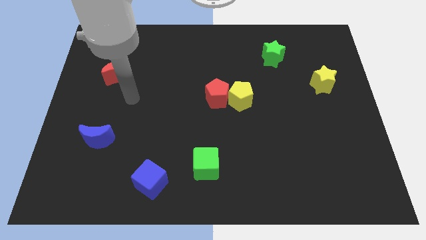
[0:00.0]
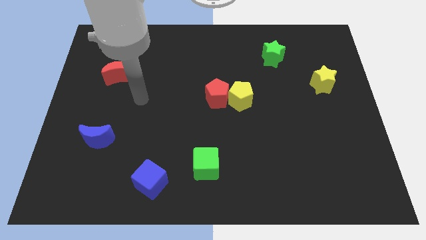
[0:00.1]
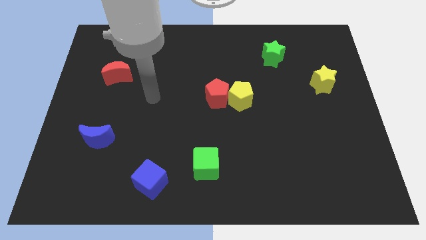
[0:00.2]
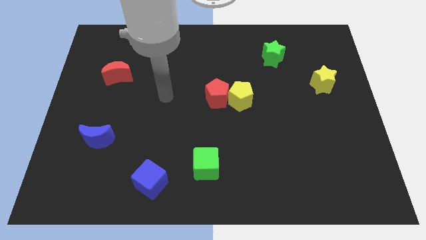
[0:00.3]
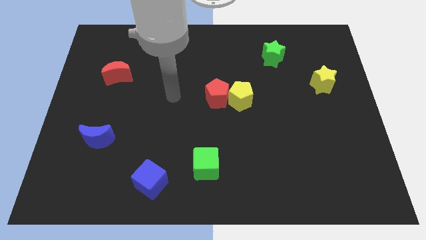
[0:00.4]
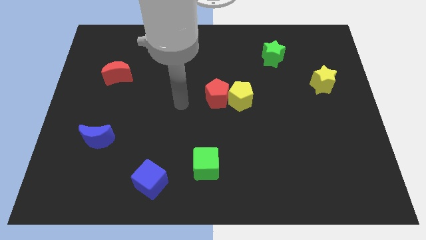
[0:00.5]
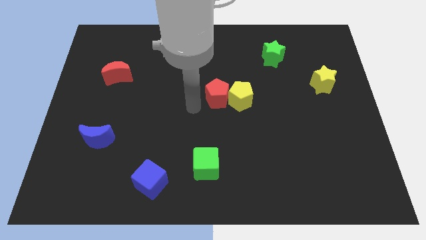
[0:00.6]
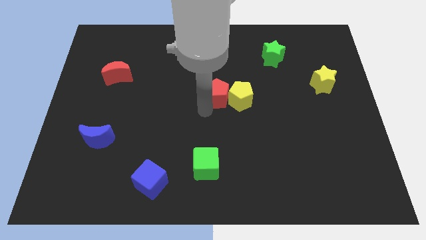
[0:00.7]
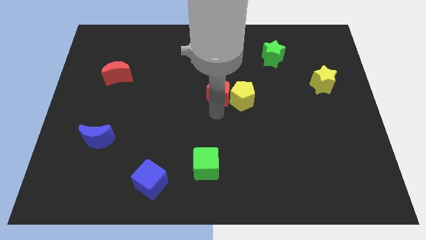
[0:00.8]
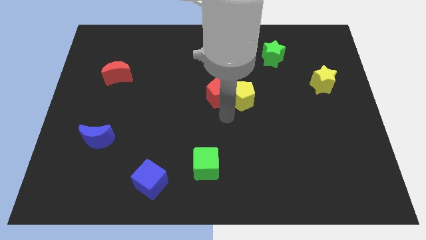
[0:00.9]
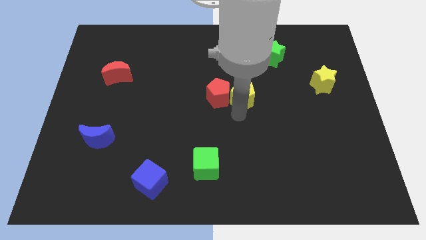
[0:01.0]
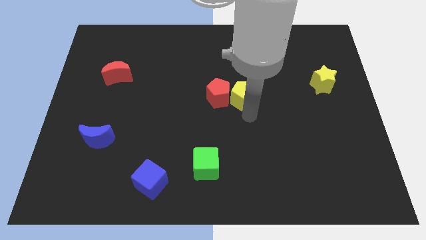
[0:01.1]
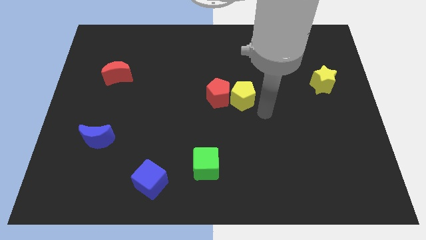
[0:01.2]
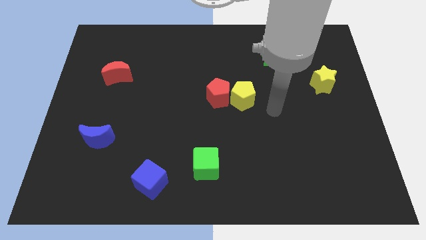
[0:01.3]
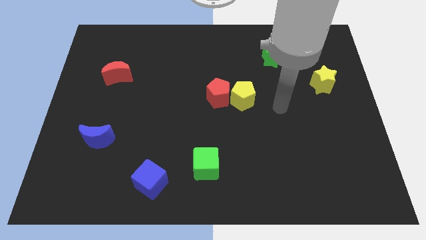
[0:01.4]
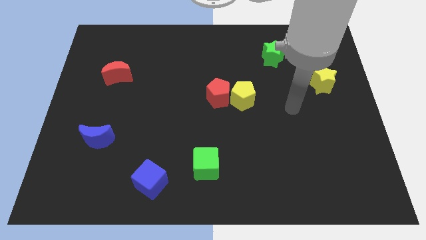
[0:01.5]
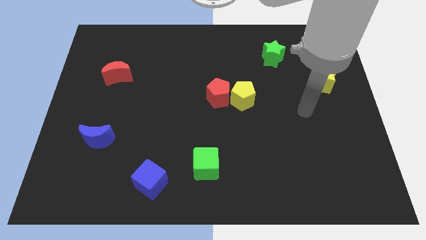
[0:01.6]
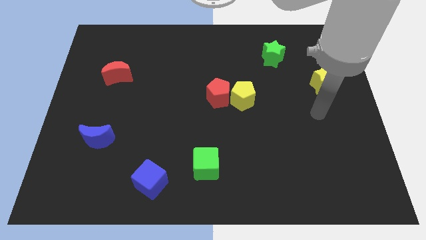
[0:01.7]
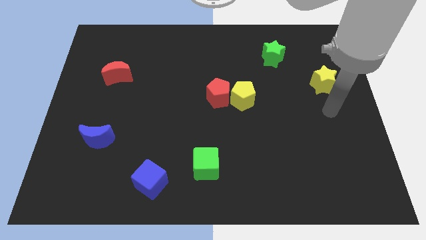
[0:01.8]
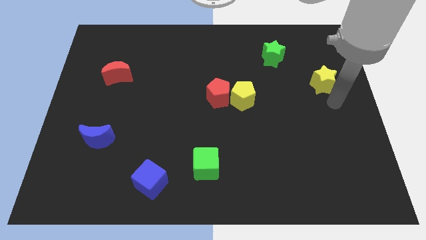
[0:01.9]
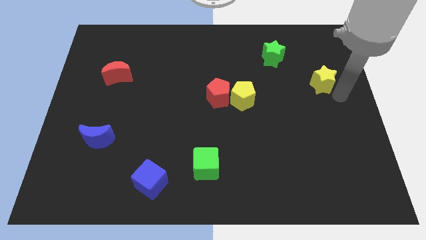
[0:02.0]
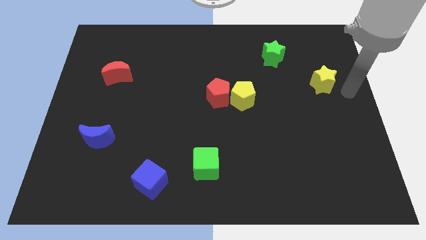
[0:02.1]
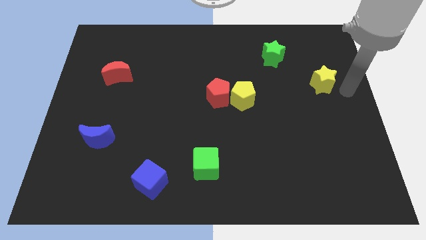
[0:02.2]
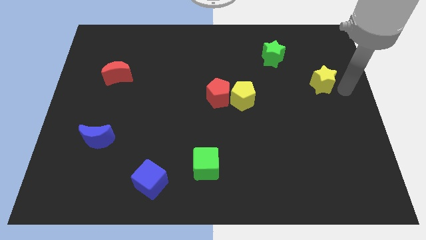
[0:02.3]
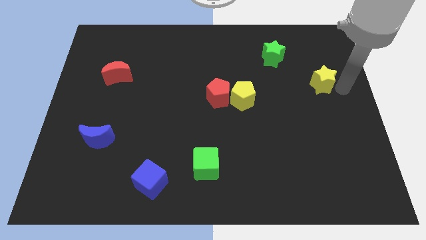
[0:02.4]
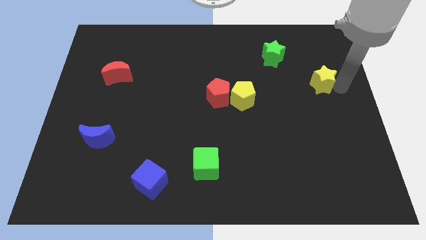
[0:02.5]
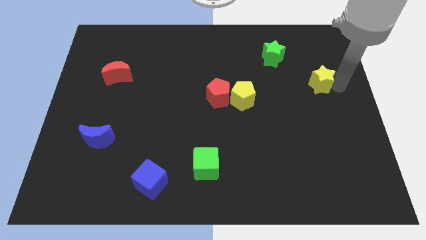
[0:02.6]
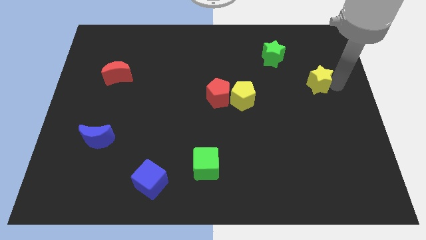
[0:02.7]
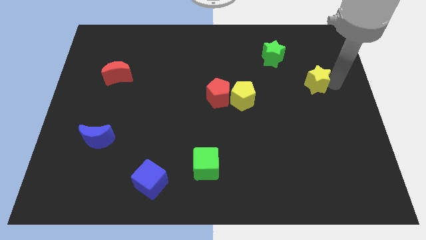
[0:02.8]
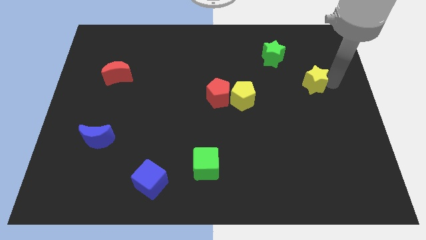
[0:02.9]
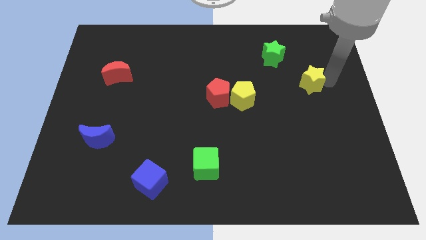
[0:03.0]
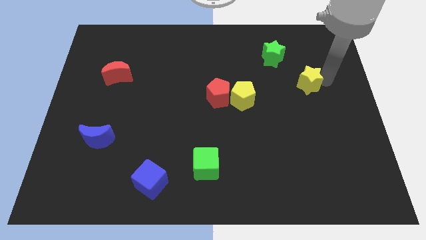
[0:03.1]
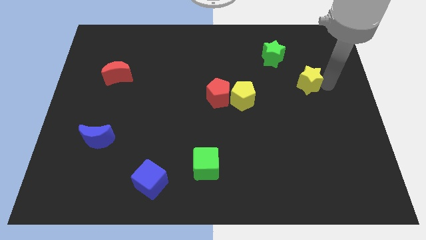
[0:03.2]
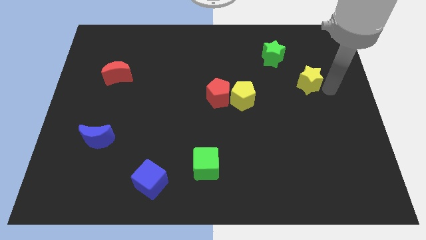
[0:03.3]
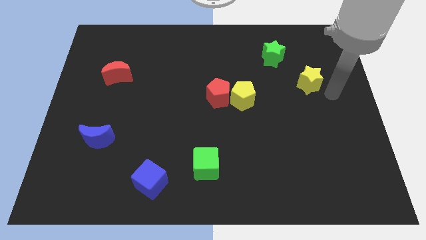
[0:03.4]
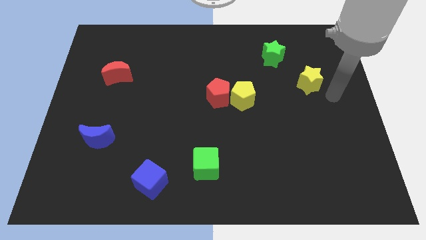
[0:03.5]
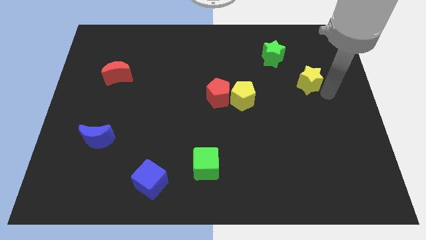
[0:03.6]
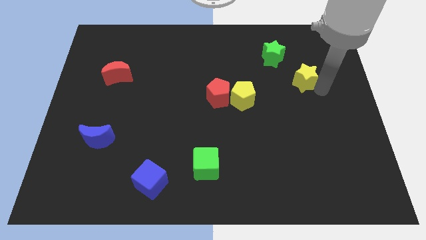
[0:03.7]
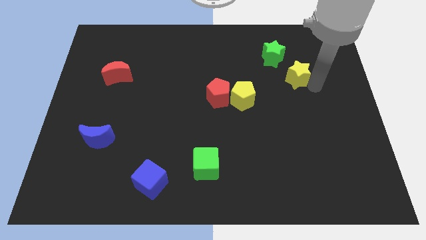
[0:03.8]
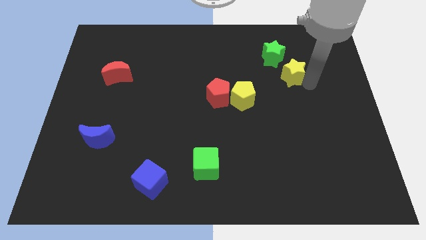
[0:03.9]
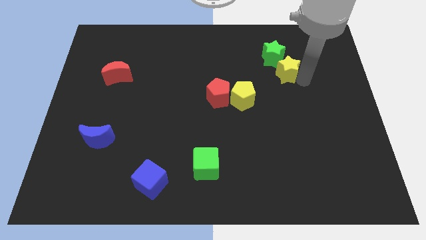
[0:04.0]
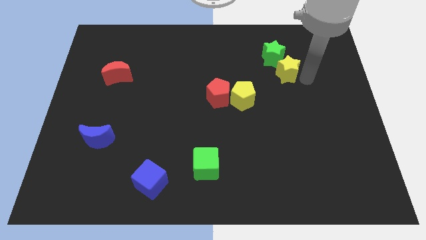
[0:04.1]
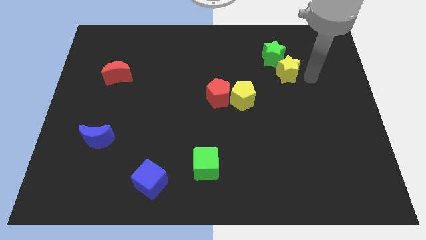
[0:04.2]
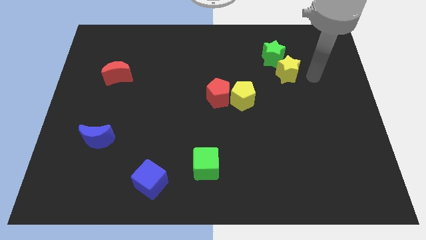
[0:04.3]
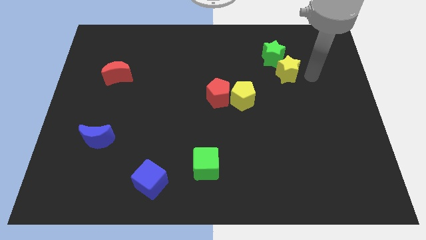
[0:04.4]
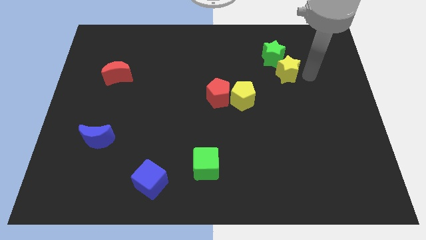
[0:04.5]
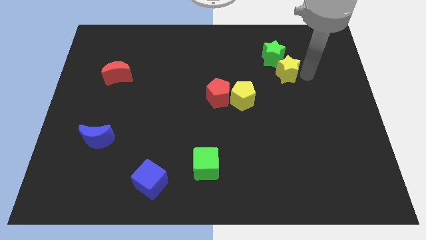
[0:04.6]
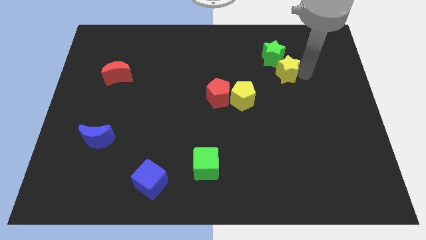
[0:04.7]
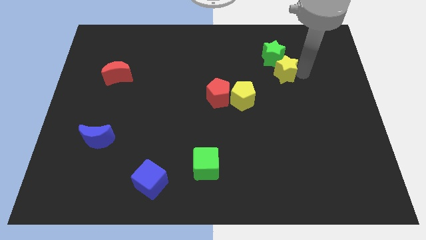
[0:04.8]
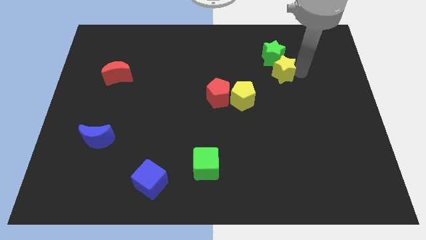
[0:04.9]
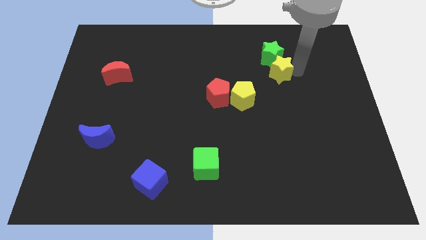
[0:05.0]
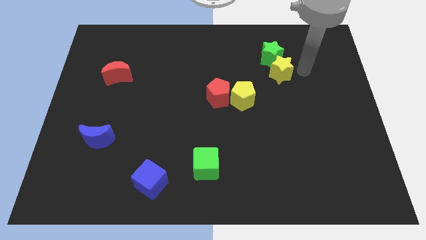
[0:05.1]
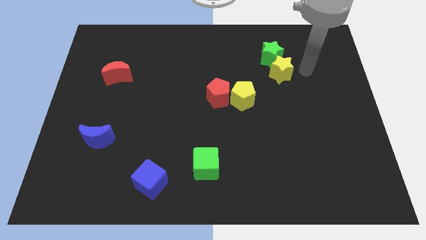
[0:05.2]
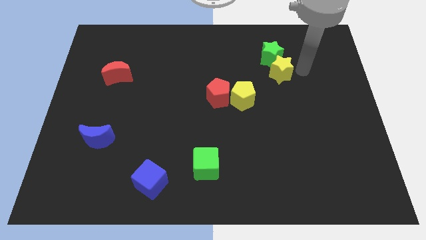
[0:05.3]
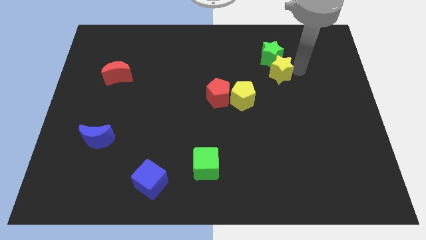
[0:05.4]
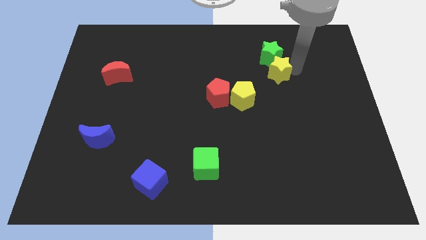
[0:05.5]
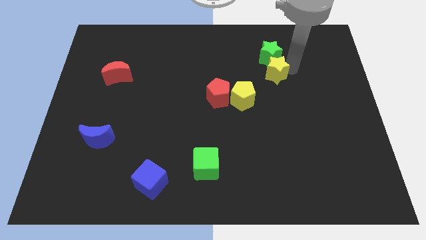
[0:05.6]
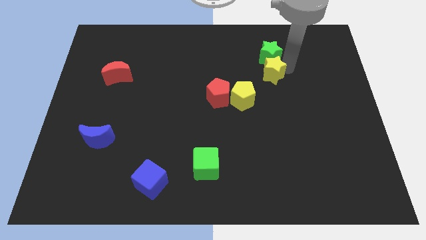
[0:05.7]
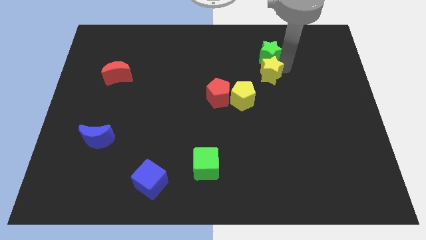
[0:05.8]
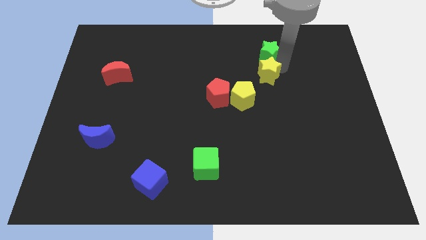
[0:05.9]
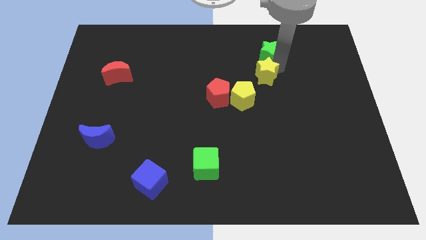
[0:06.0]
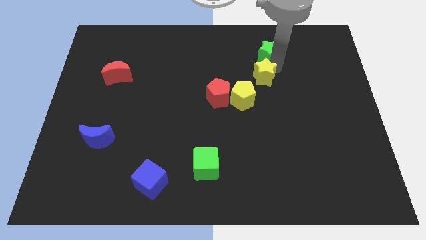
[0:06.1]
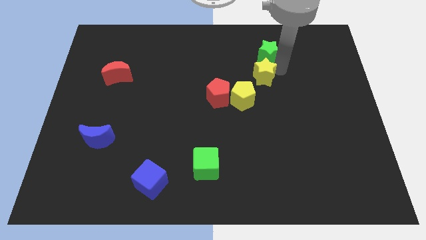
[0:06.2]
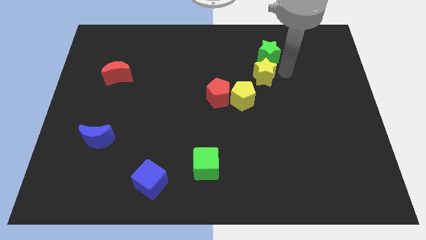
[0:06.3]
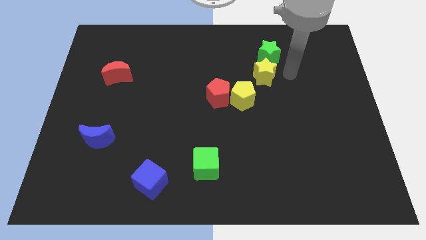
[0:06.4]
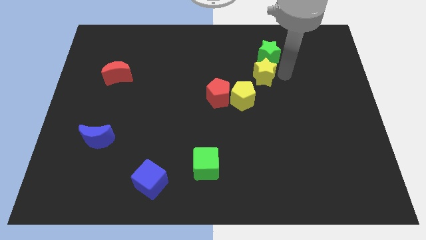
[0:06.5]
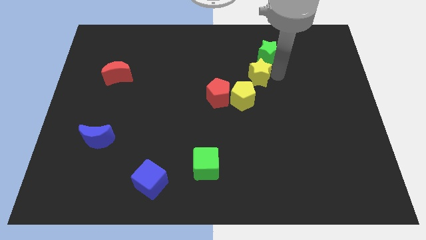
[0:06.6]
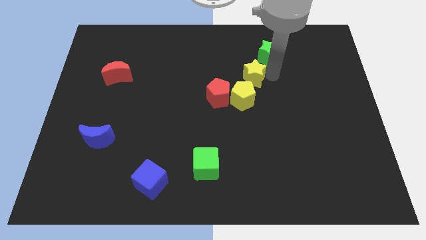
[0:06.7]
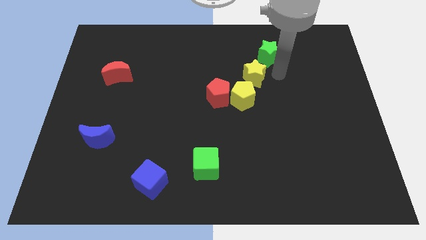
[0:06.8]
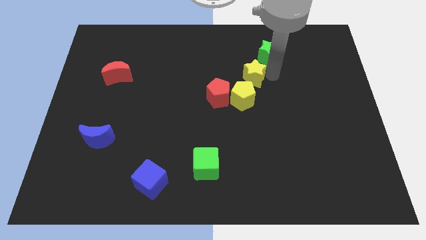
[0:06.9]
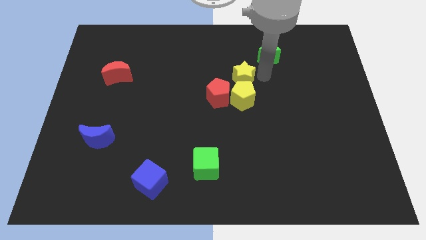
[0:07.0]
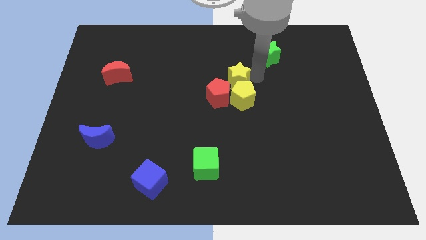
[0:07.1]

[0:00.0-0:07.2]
move the yellow star left

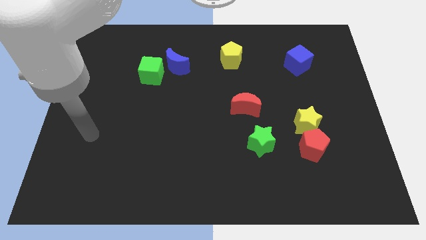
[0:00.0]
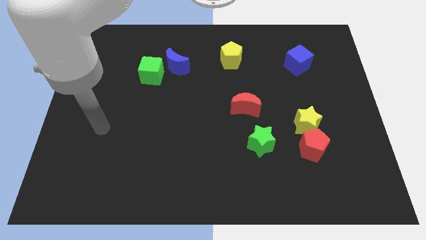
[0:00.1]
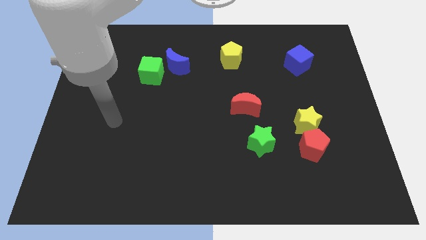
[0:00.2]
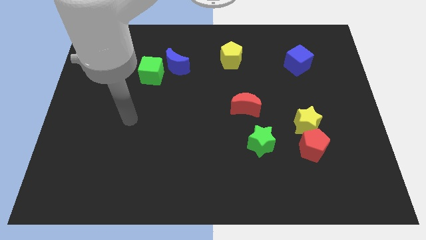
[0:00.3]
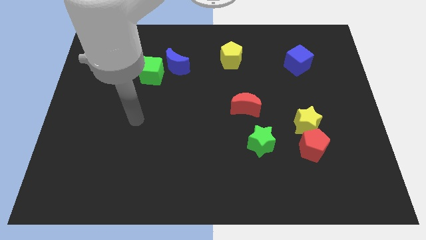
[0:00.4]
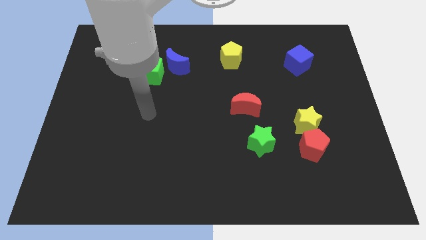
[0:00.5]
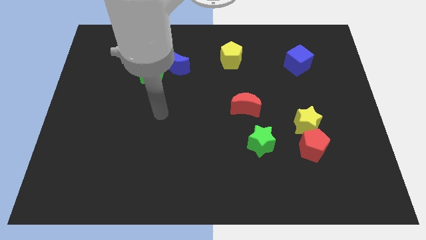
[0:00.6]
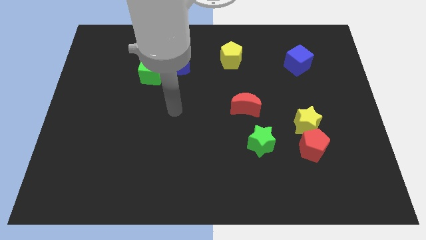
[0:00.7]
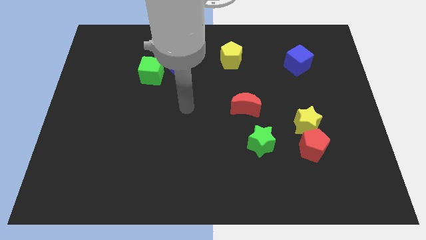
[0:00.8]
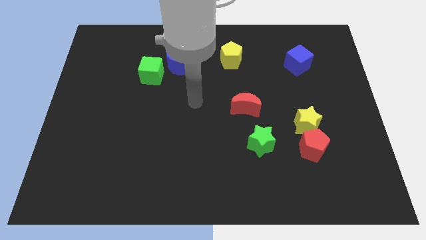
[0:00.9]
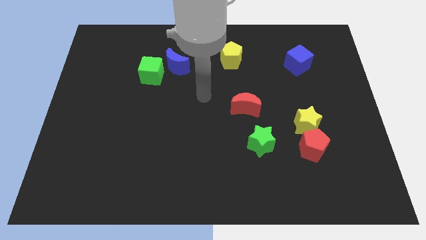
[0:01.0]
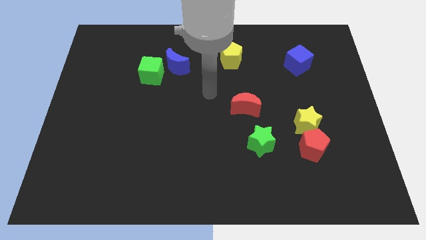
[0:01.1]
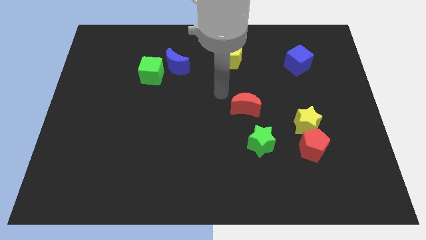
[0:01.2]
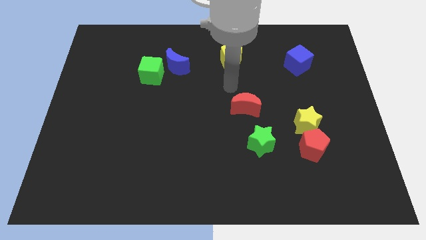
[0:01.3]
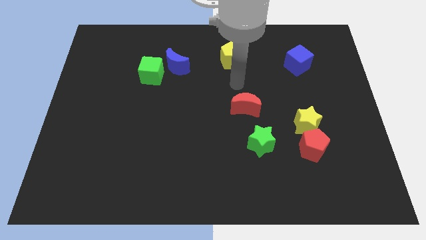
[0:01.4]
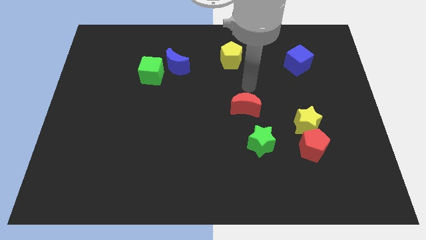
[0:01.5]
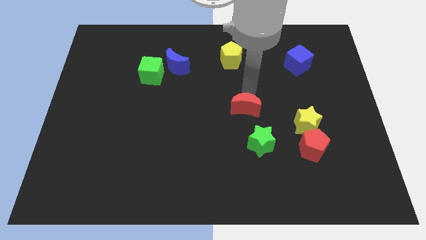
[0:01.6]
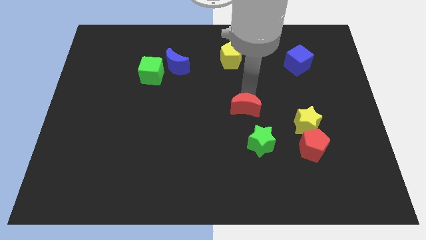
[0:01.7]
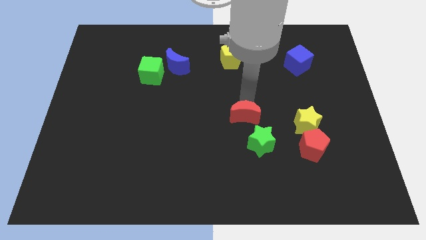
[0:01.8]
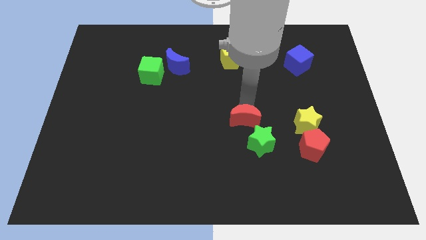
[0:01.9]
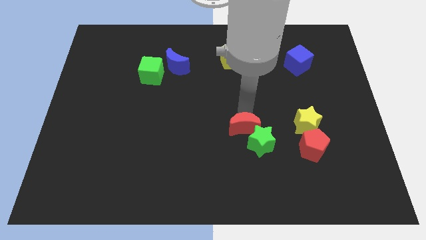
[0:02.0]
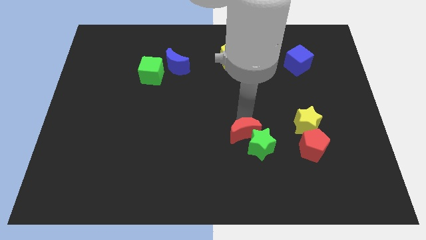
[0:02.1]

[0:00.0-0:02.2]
push the red moon slightly downwards
